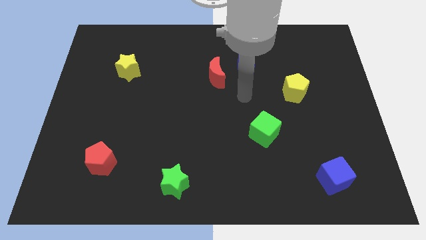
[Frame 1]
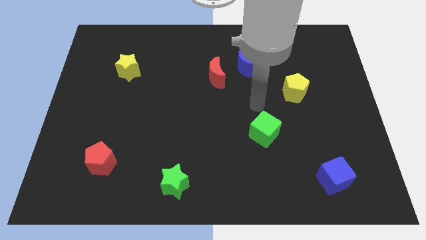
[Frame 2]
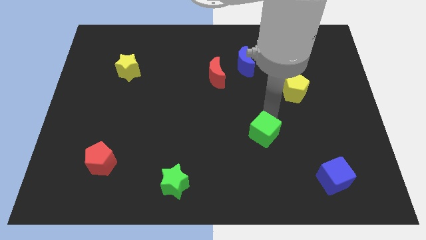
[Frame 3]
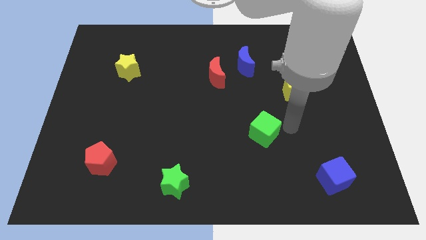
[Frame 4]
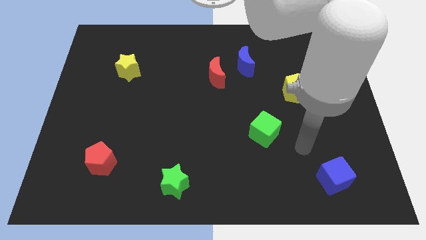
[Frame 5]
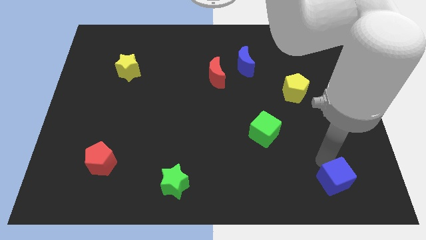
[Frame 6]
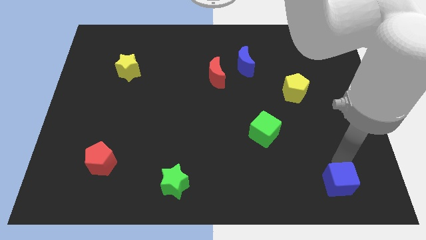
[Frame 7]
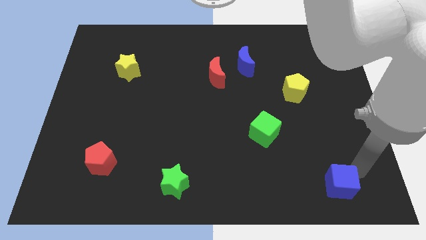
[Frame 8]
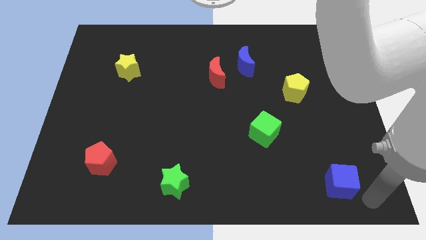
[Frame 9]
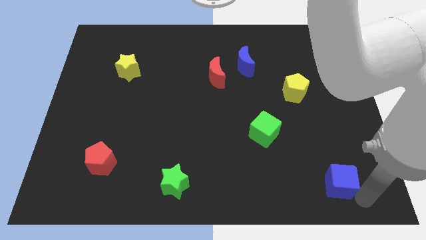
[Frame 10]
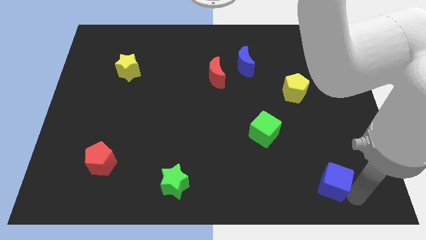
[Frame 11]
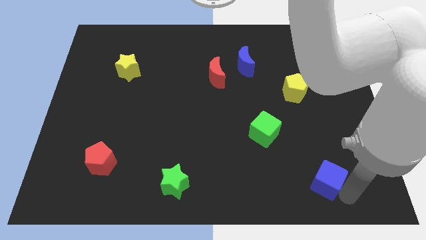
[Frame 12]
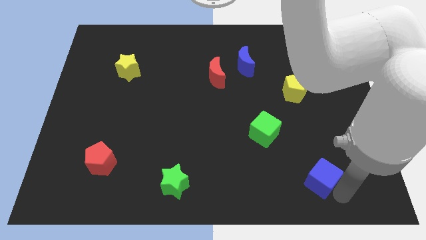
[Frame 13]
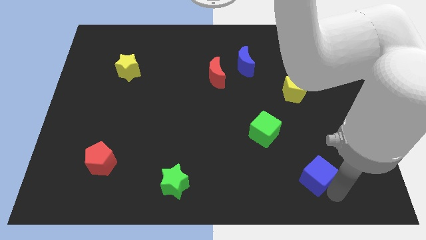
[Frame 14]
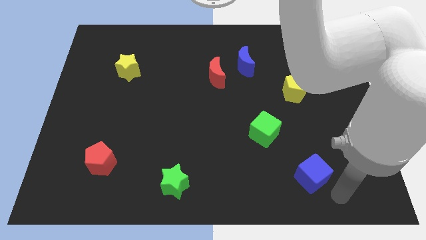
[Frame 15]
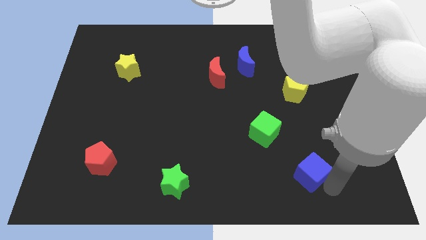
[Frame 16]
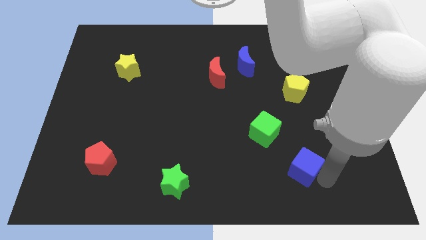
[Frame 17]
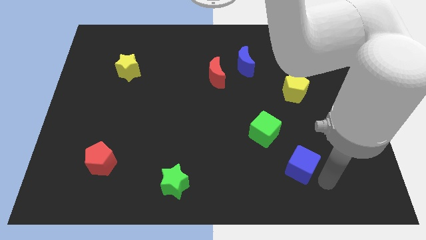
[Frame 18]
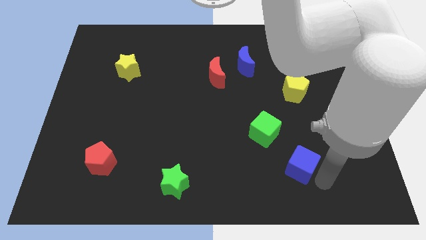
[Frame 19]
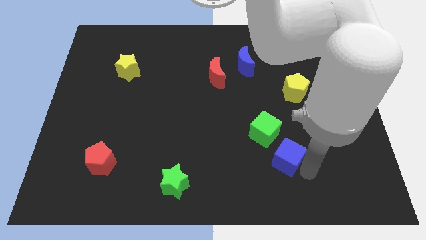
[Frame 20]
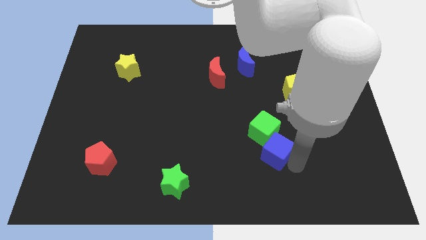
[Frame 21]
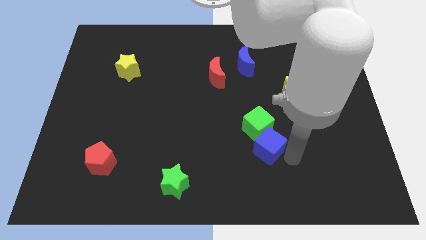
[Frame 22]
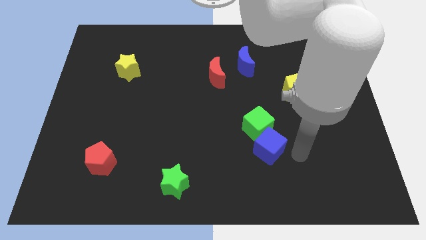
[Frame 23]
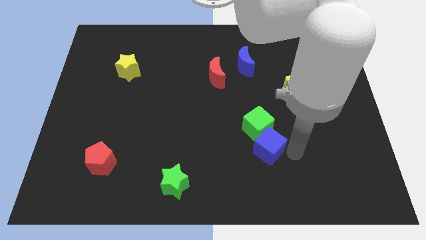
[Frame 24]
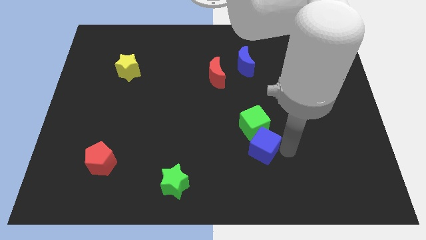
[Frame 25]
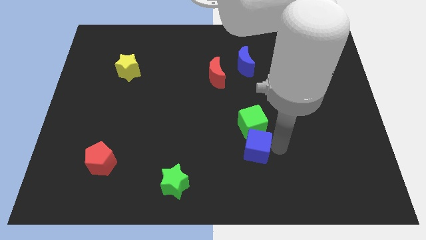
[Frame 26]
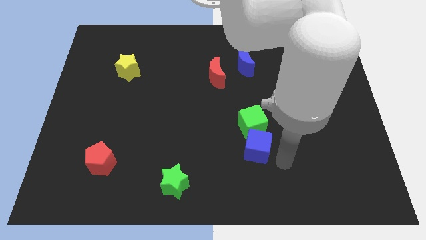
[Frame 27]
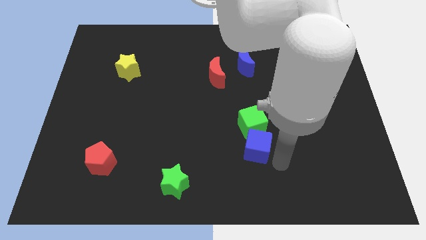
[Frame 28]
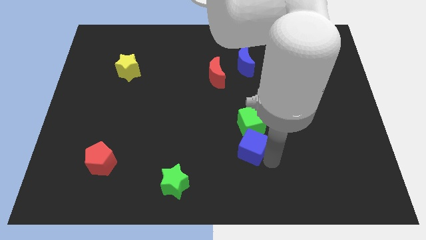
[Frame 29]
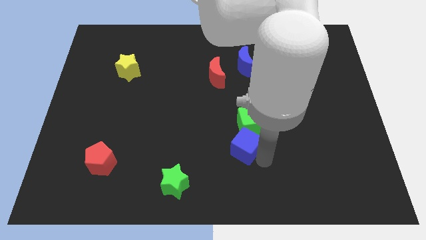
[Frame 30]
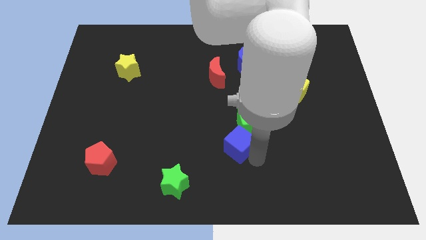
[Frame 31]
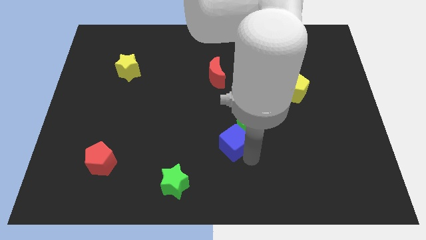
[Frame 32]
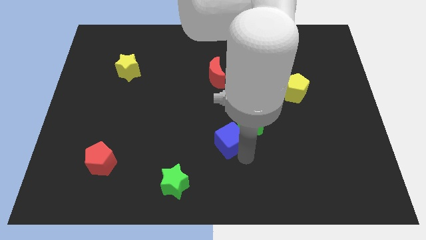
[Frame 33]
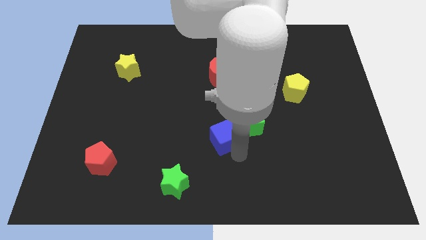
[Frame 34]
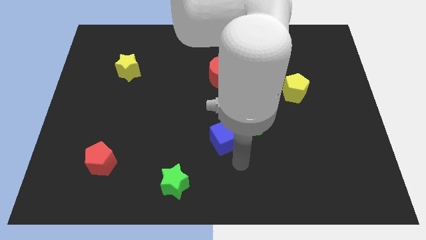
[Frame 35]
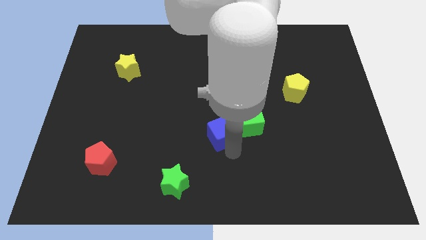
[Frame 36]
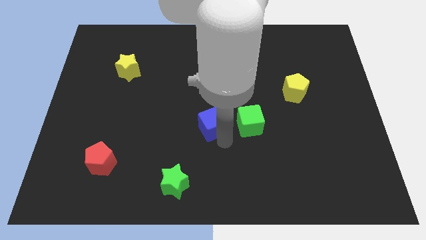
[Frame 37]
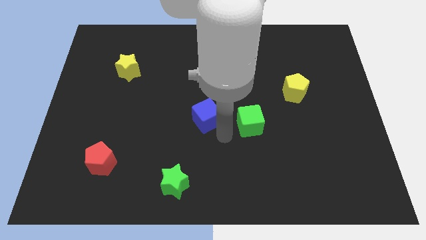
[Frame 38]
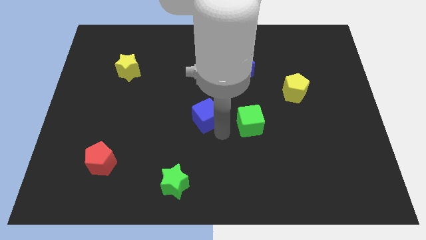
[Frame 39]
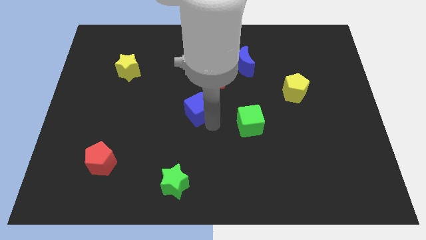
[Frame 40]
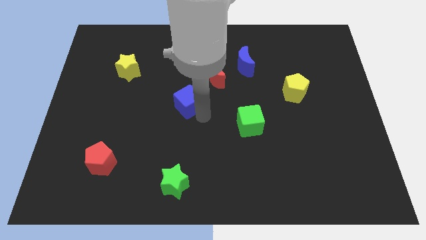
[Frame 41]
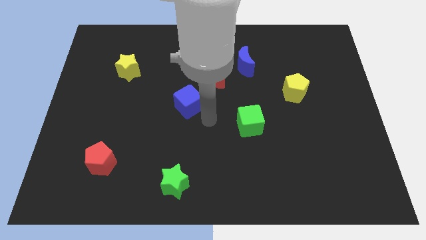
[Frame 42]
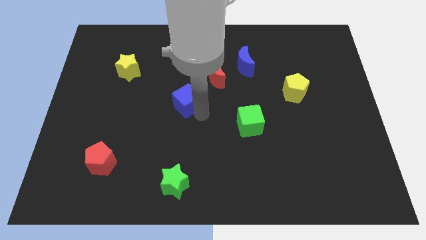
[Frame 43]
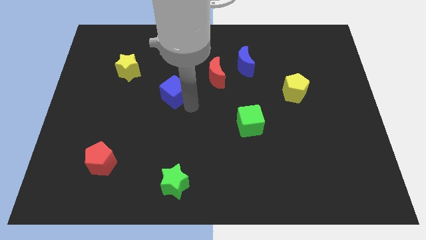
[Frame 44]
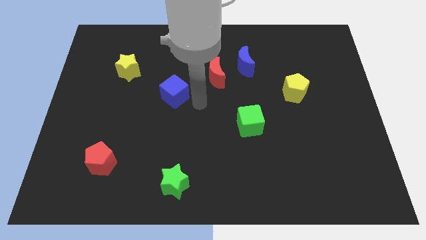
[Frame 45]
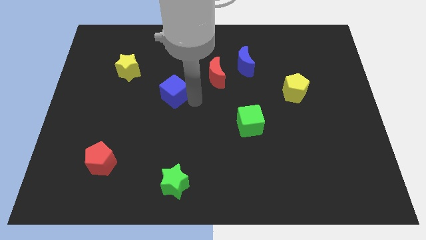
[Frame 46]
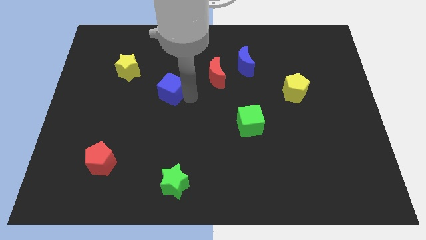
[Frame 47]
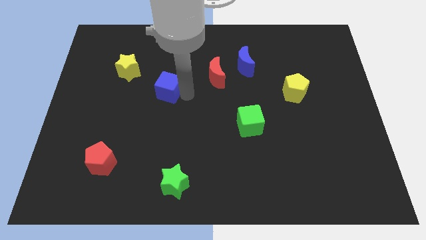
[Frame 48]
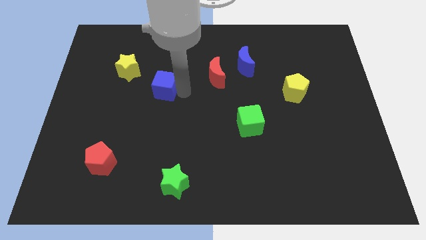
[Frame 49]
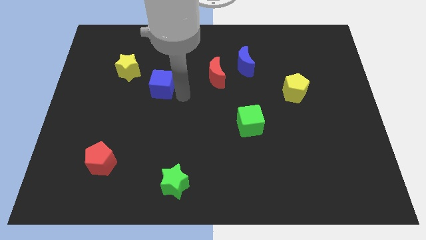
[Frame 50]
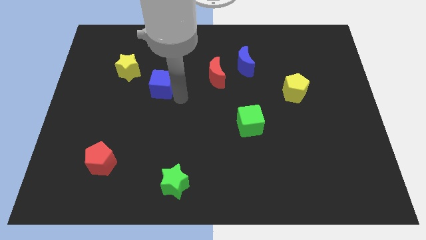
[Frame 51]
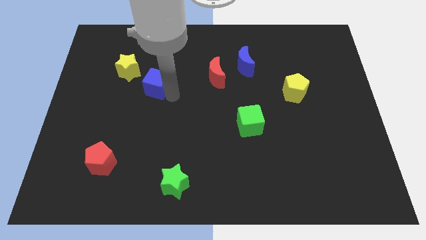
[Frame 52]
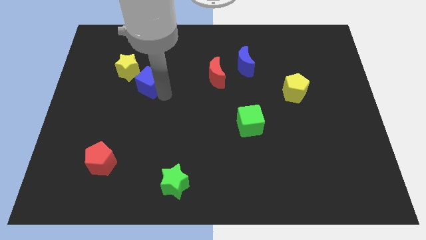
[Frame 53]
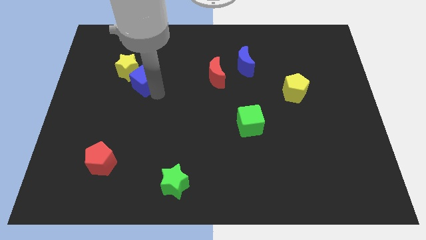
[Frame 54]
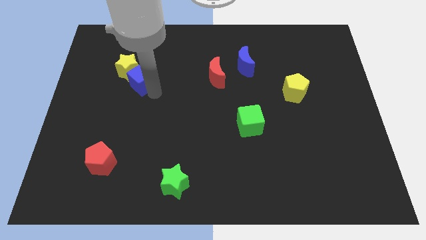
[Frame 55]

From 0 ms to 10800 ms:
move the blue cube next to the yellow star

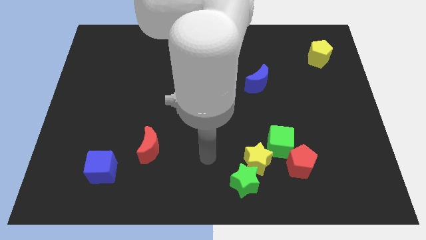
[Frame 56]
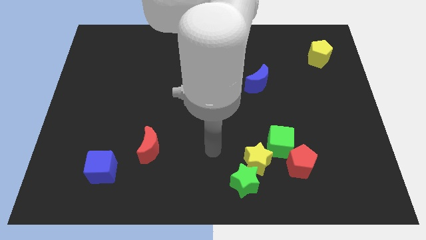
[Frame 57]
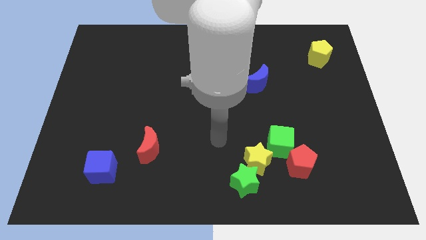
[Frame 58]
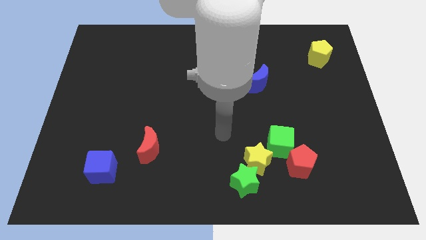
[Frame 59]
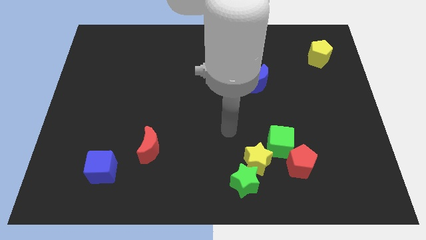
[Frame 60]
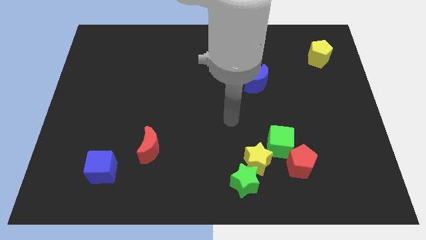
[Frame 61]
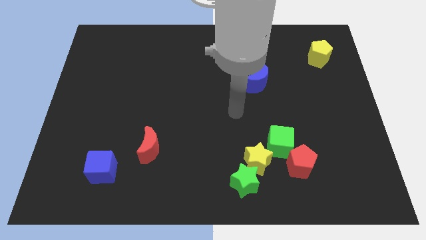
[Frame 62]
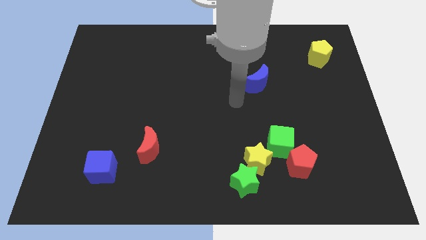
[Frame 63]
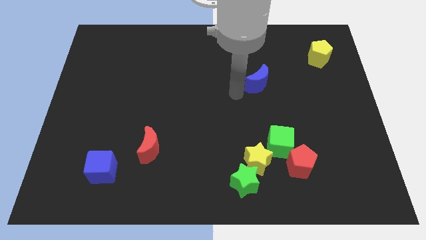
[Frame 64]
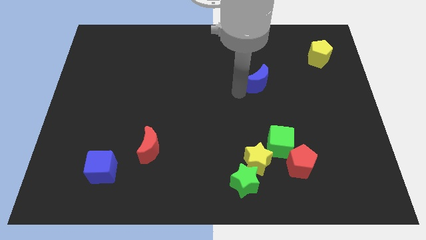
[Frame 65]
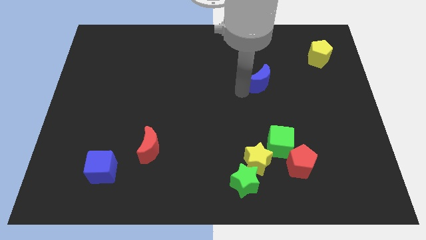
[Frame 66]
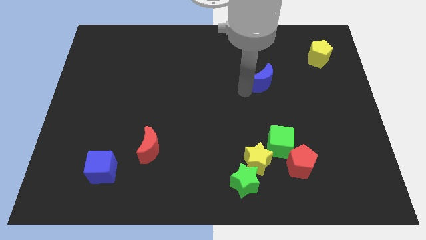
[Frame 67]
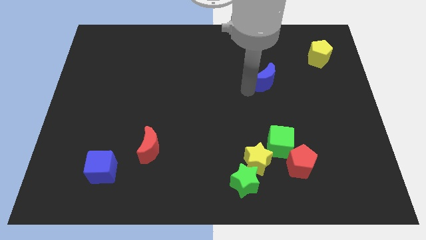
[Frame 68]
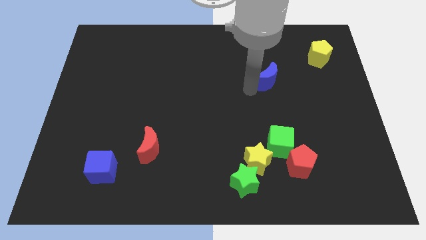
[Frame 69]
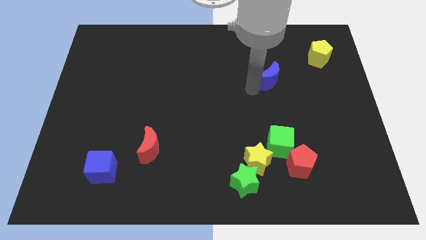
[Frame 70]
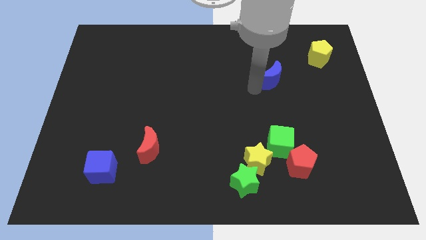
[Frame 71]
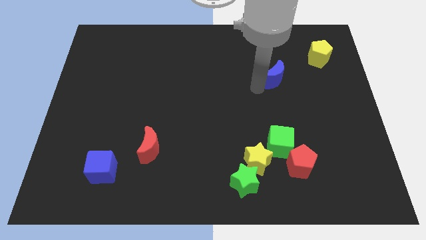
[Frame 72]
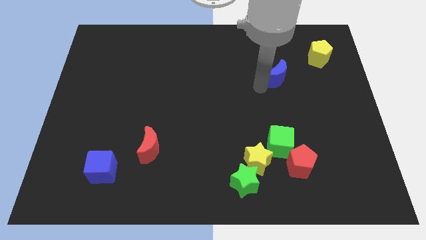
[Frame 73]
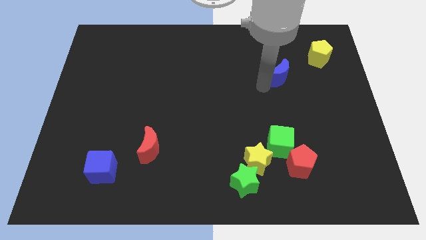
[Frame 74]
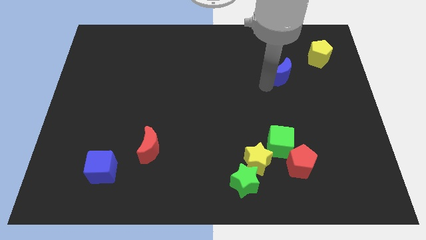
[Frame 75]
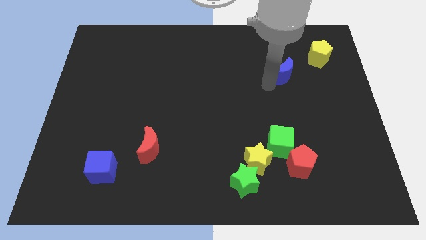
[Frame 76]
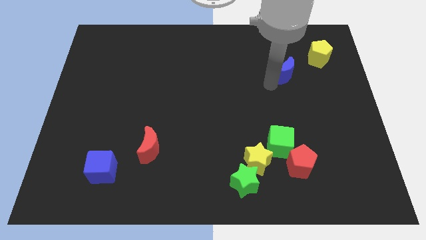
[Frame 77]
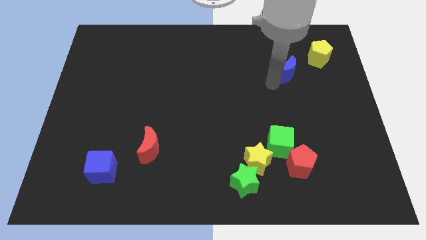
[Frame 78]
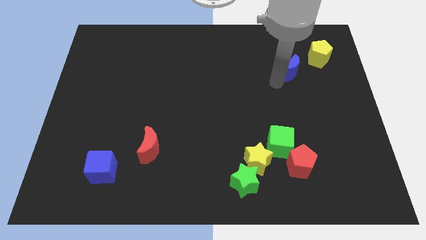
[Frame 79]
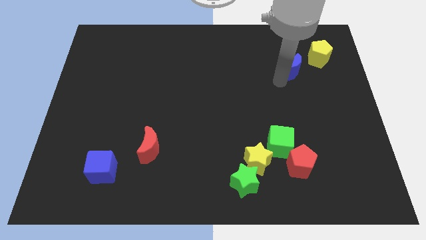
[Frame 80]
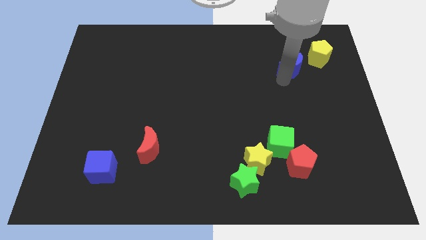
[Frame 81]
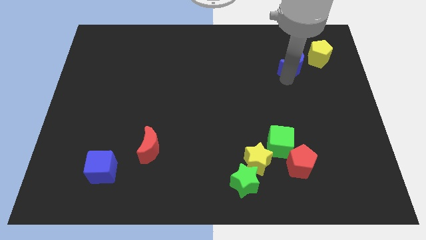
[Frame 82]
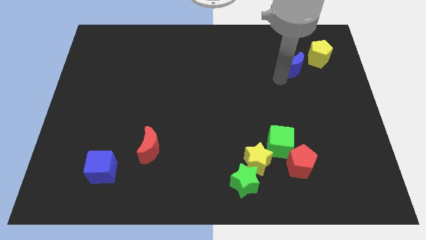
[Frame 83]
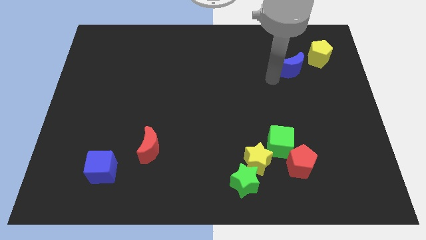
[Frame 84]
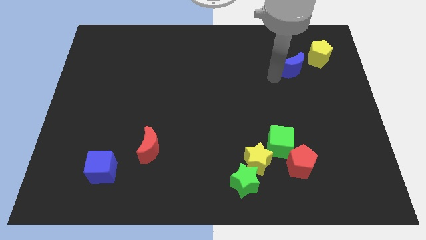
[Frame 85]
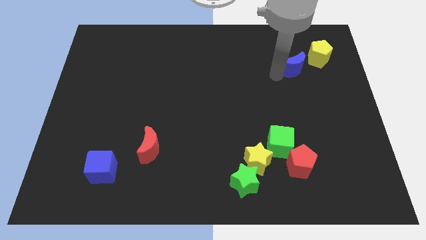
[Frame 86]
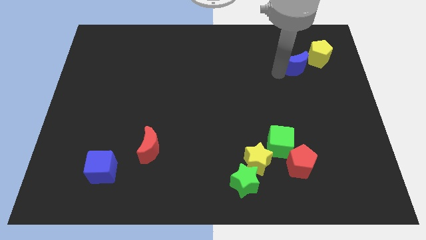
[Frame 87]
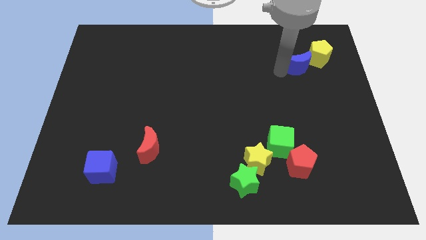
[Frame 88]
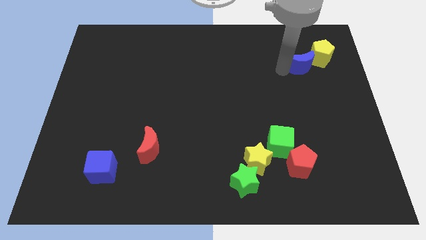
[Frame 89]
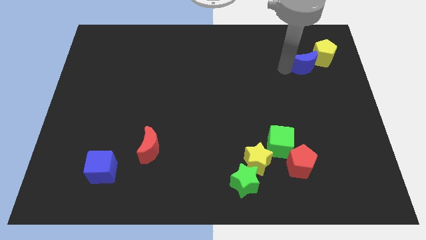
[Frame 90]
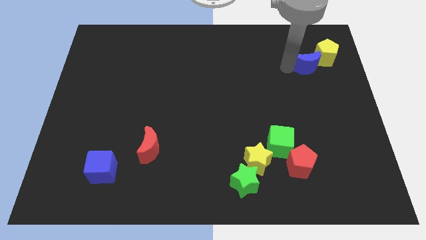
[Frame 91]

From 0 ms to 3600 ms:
put the blue moon to the yellow pentagon
